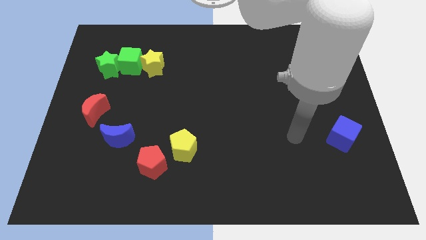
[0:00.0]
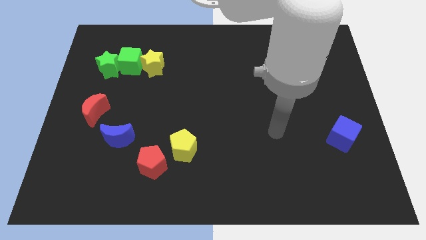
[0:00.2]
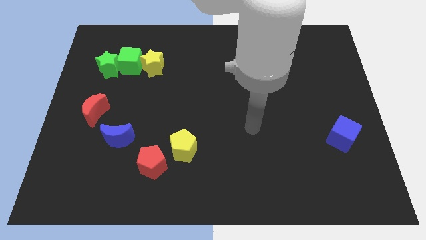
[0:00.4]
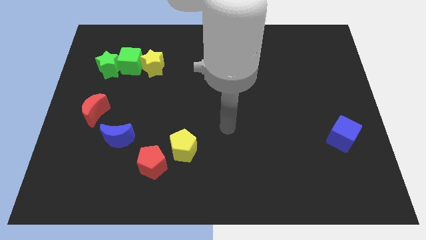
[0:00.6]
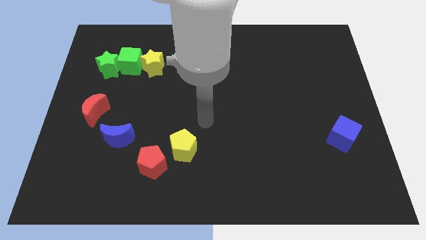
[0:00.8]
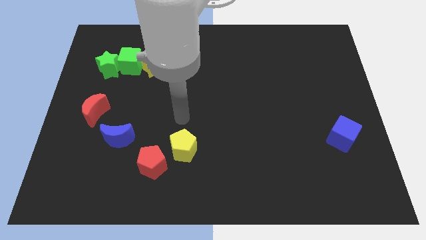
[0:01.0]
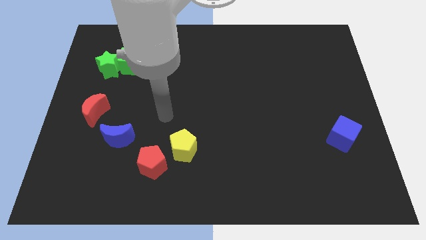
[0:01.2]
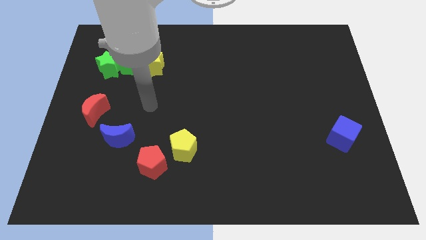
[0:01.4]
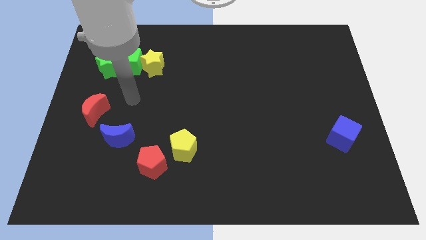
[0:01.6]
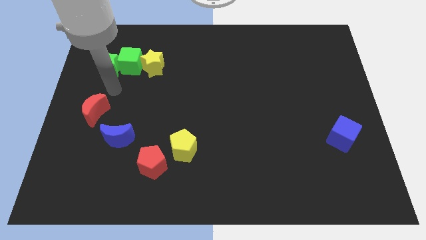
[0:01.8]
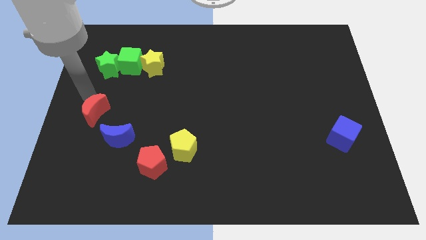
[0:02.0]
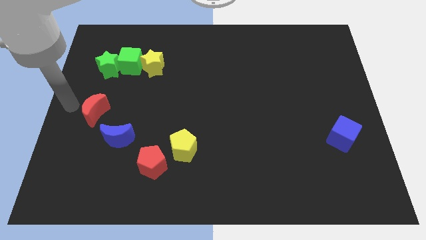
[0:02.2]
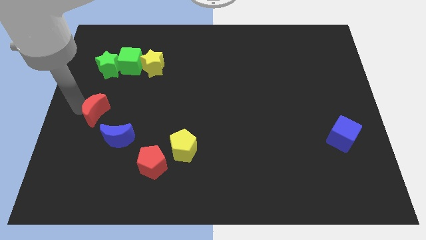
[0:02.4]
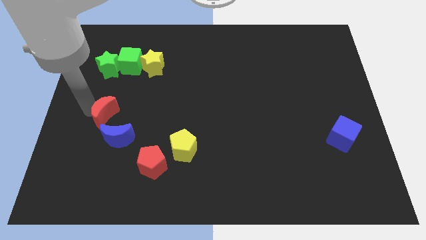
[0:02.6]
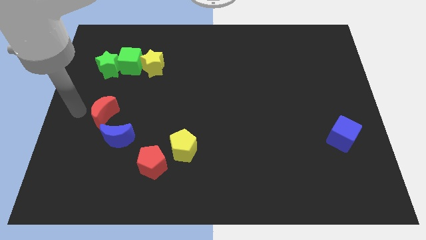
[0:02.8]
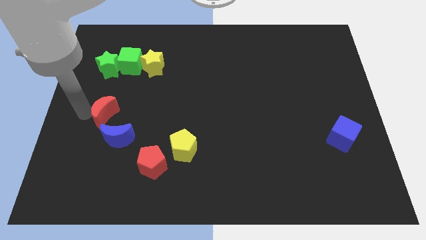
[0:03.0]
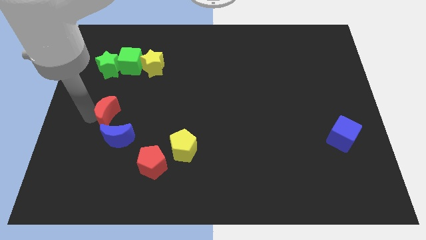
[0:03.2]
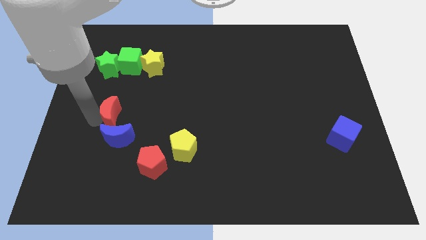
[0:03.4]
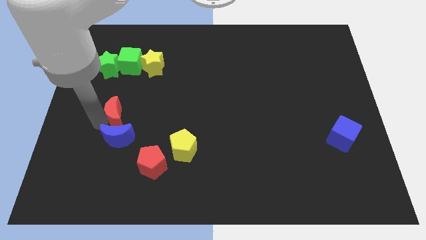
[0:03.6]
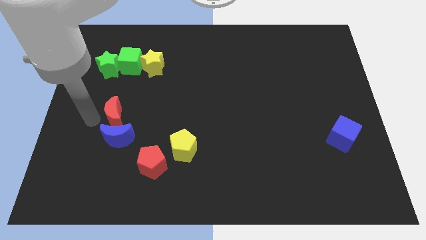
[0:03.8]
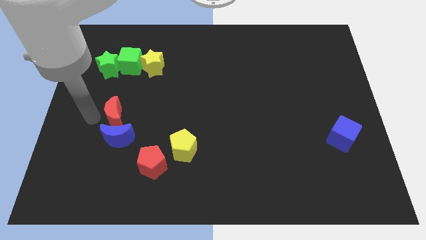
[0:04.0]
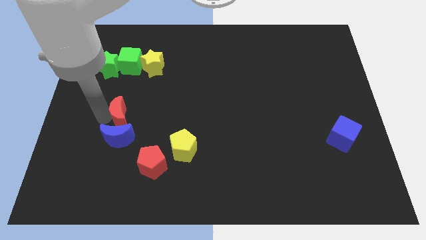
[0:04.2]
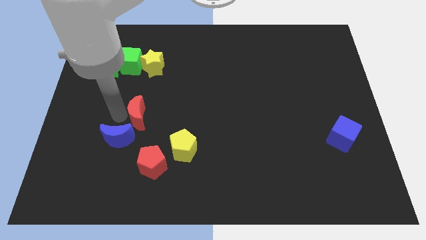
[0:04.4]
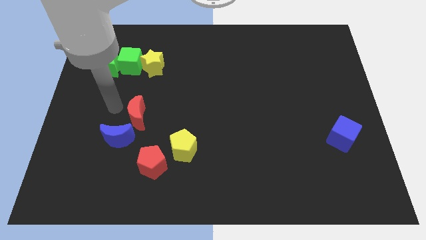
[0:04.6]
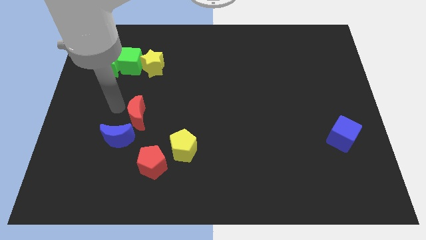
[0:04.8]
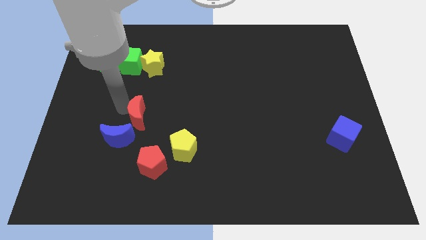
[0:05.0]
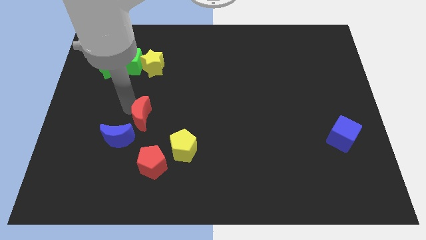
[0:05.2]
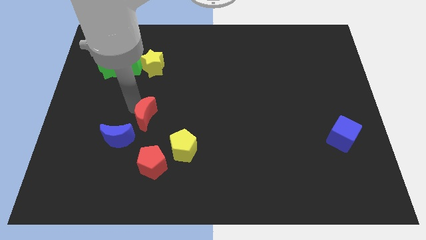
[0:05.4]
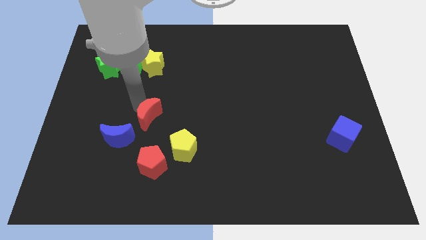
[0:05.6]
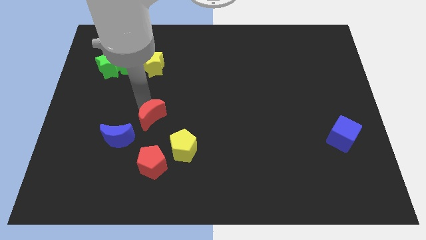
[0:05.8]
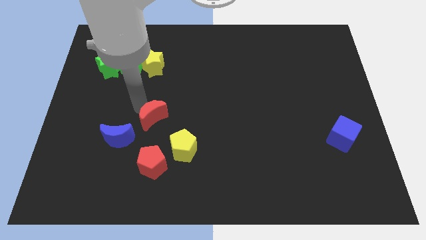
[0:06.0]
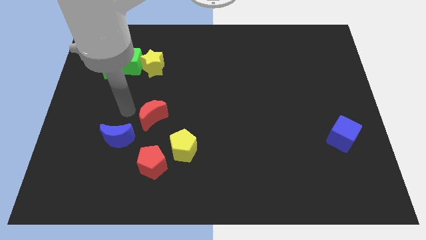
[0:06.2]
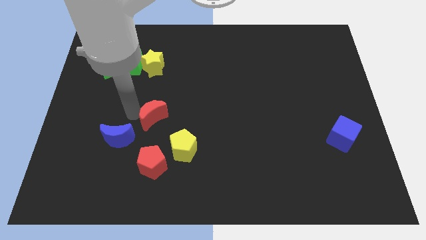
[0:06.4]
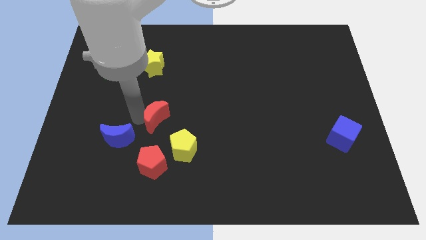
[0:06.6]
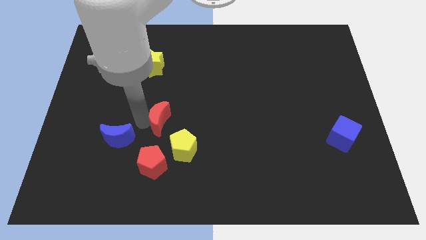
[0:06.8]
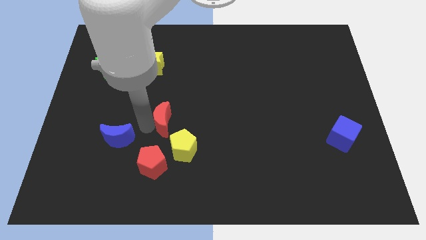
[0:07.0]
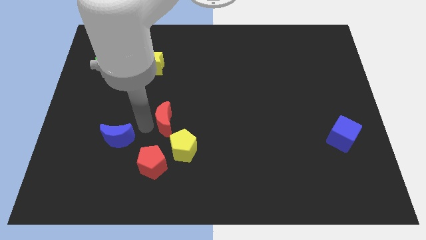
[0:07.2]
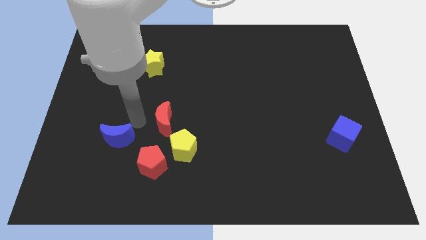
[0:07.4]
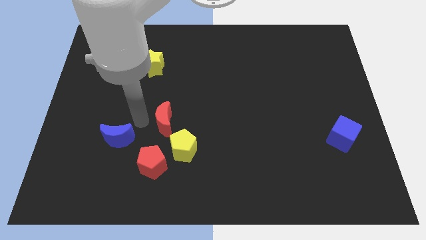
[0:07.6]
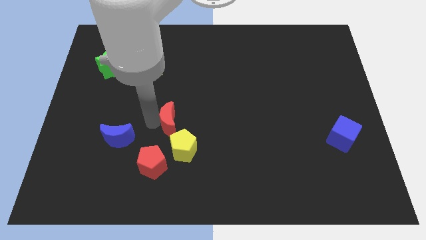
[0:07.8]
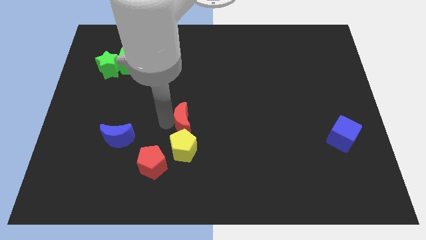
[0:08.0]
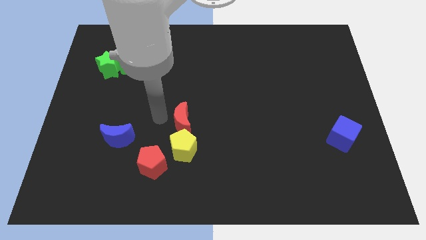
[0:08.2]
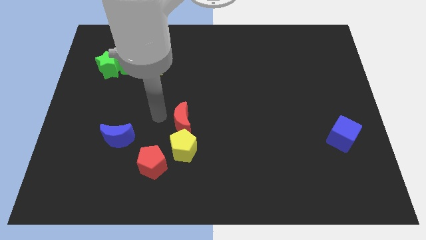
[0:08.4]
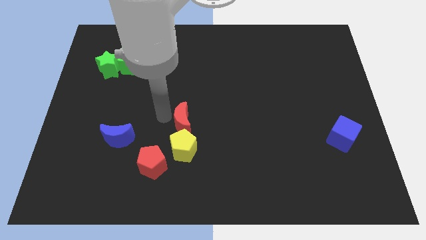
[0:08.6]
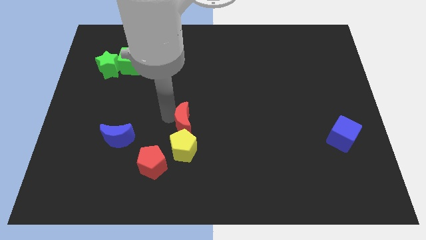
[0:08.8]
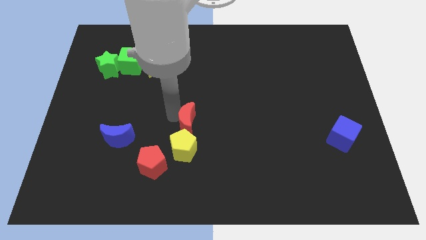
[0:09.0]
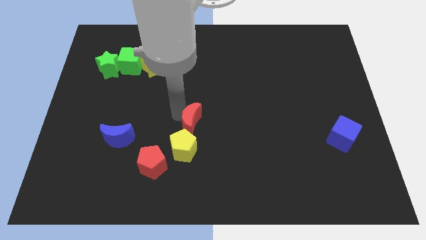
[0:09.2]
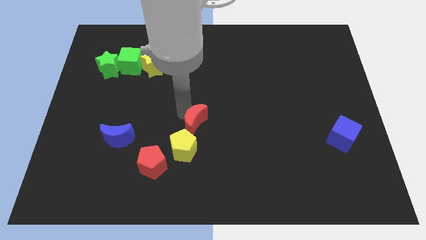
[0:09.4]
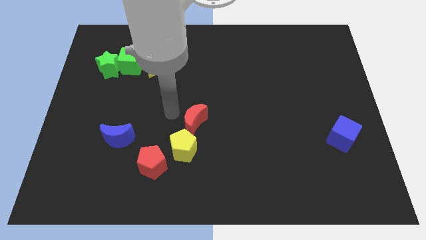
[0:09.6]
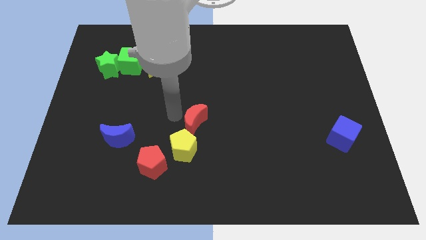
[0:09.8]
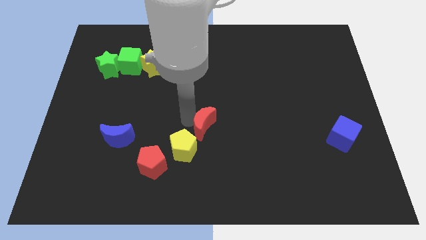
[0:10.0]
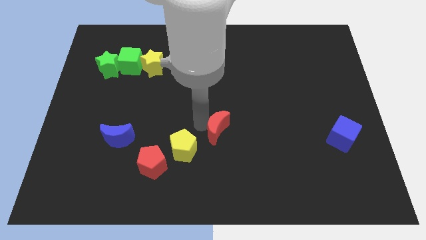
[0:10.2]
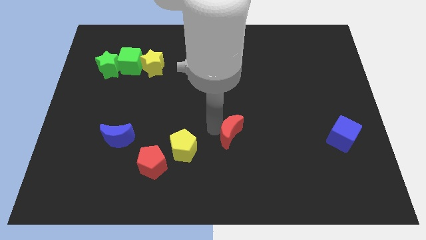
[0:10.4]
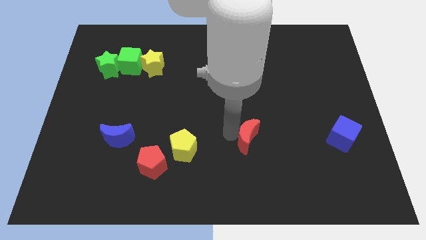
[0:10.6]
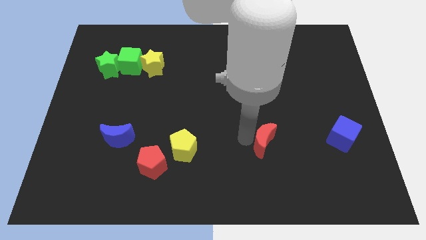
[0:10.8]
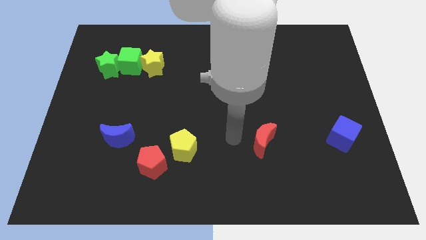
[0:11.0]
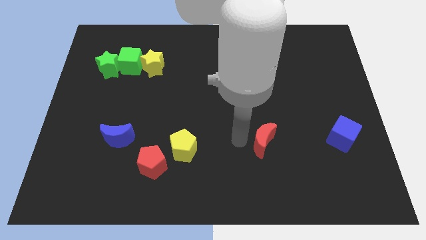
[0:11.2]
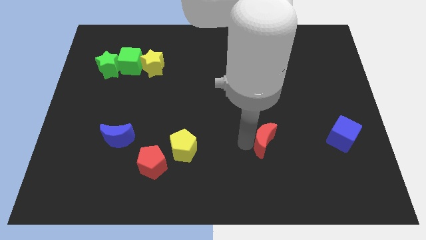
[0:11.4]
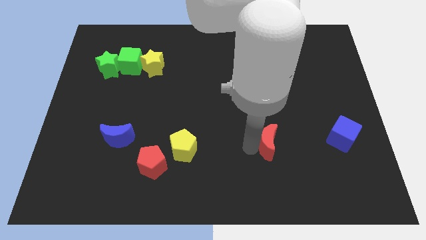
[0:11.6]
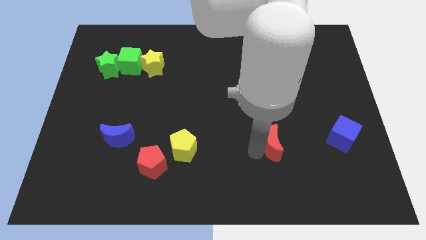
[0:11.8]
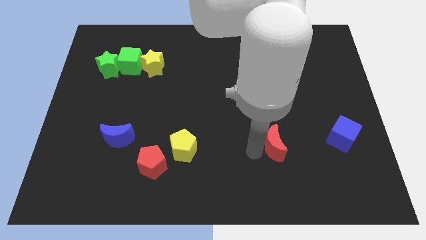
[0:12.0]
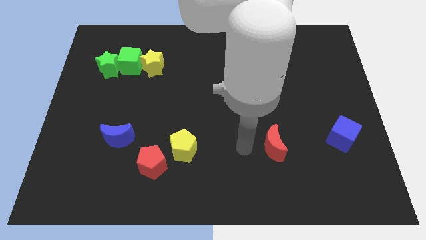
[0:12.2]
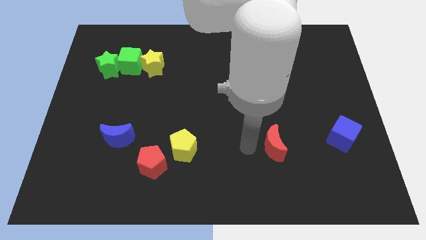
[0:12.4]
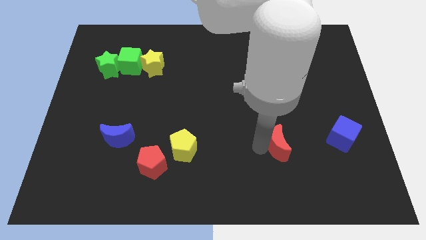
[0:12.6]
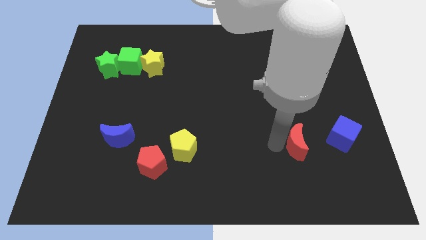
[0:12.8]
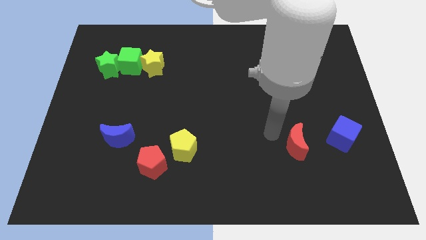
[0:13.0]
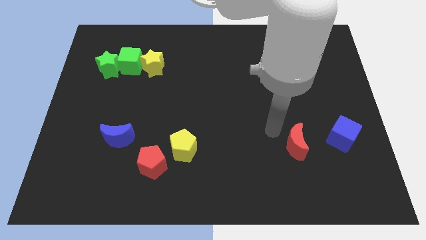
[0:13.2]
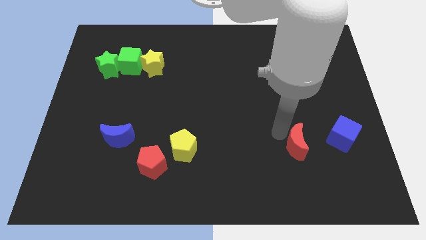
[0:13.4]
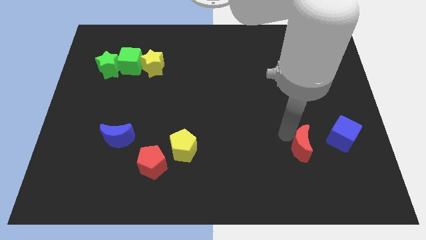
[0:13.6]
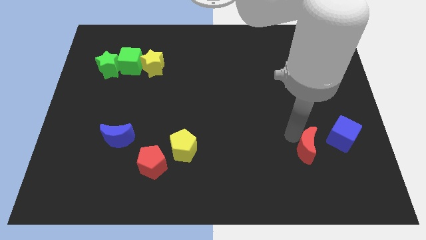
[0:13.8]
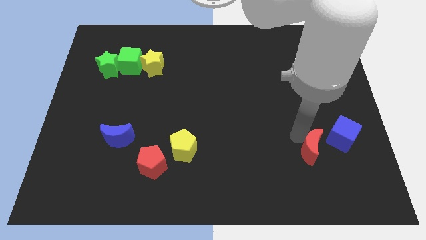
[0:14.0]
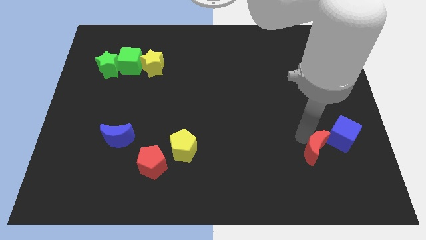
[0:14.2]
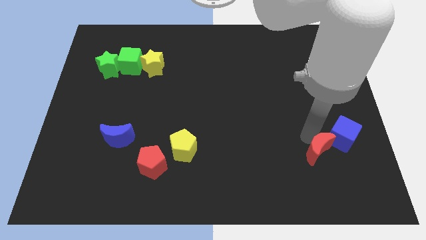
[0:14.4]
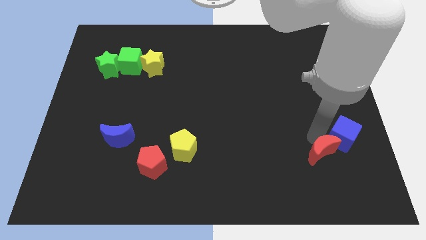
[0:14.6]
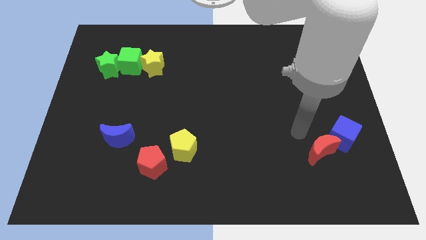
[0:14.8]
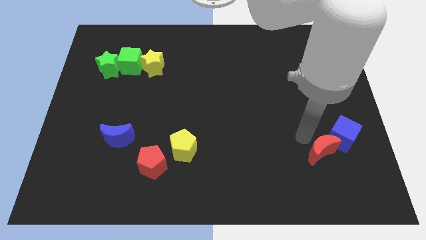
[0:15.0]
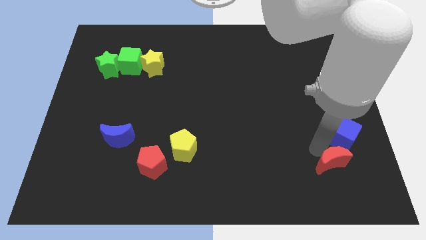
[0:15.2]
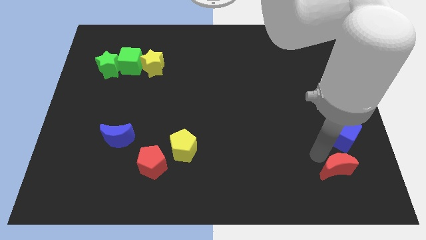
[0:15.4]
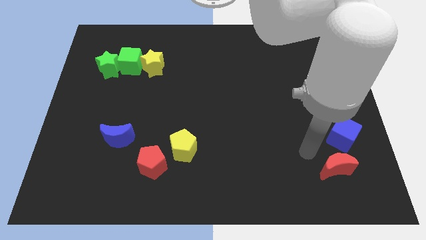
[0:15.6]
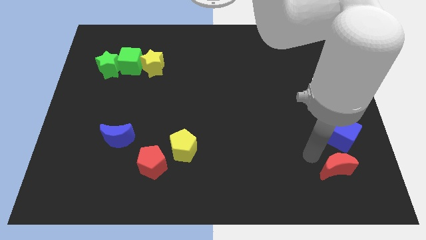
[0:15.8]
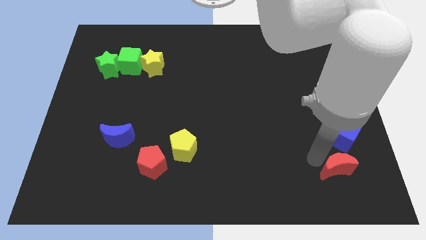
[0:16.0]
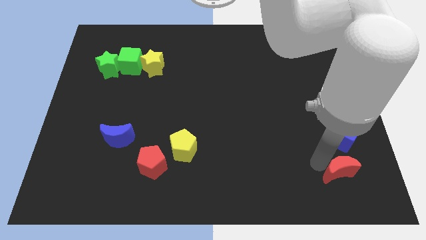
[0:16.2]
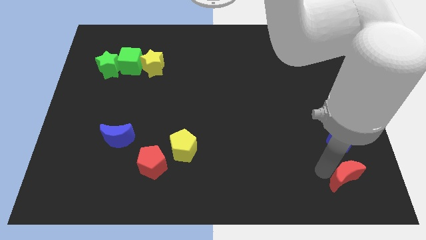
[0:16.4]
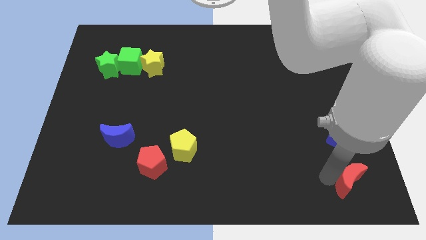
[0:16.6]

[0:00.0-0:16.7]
move the red moon to the bottom right of the board
